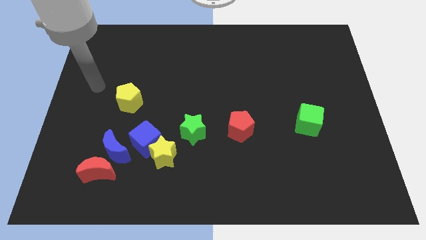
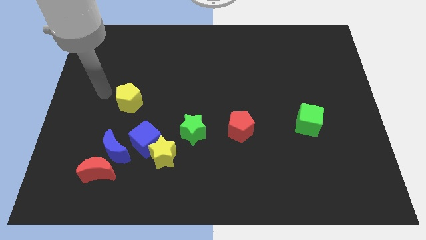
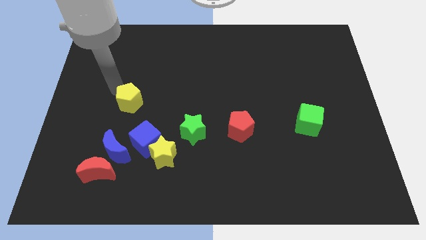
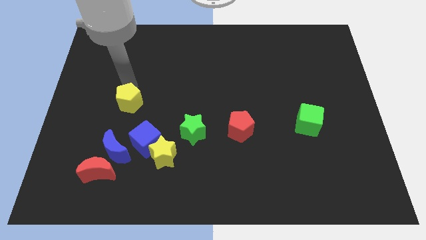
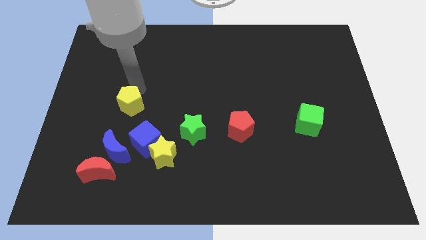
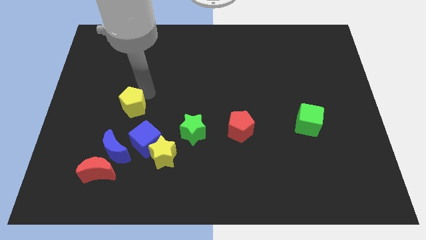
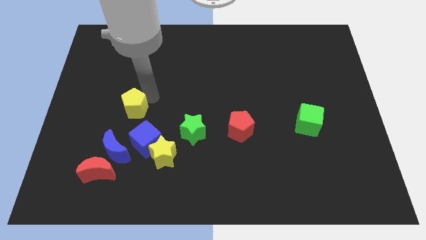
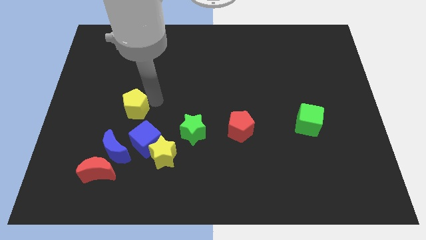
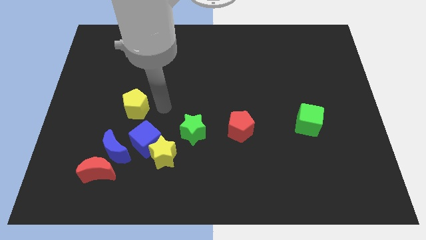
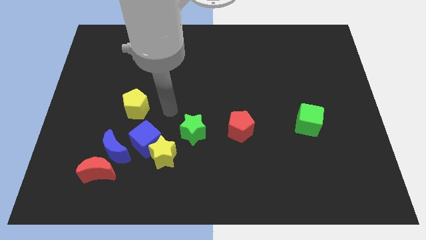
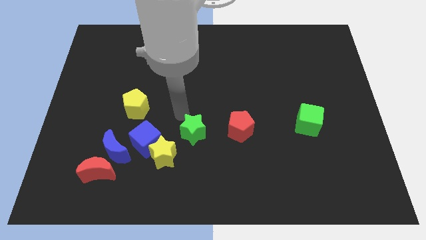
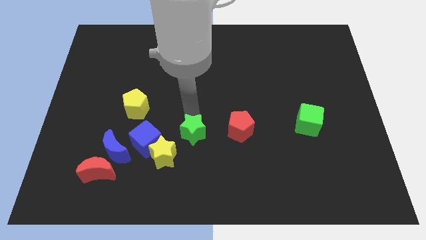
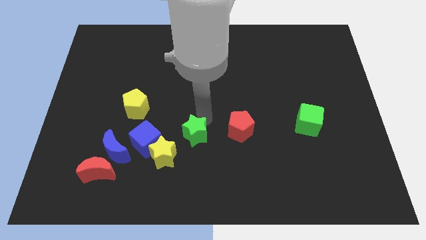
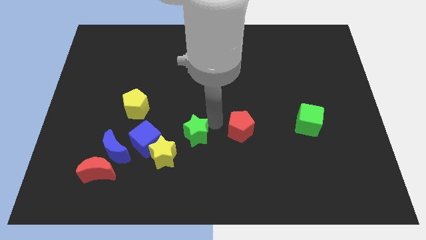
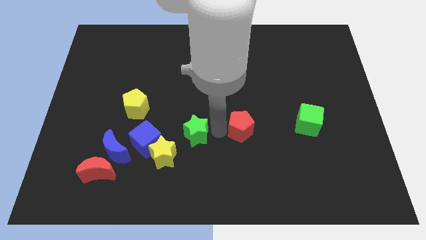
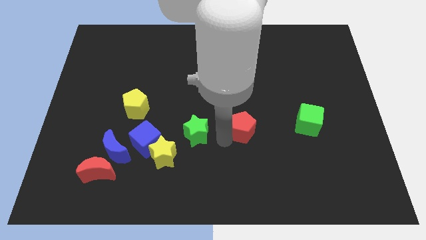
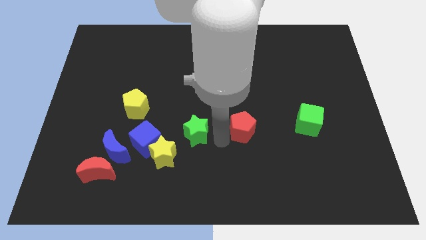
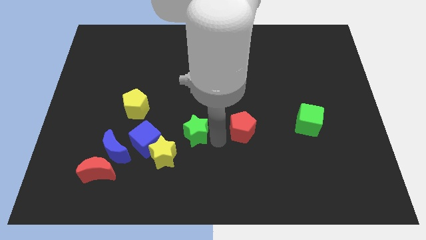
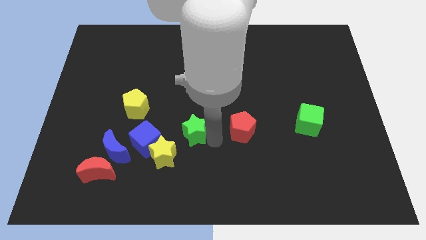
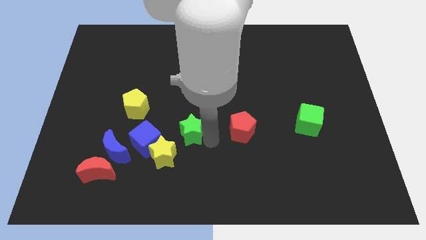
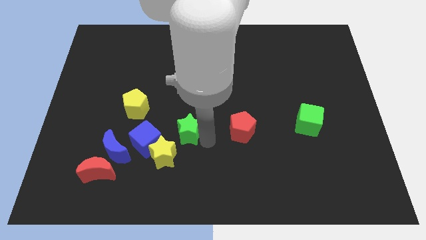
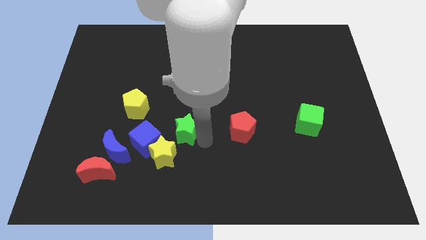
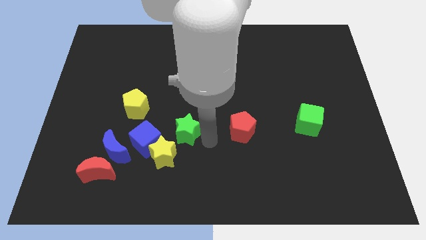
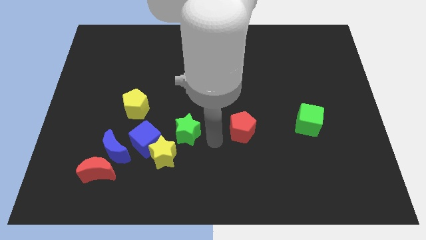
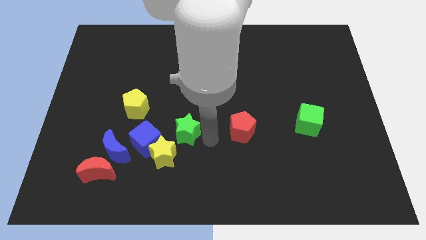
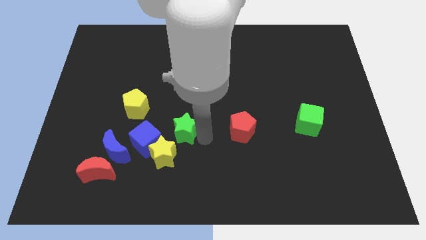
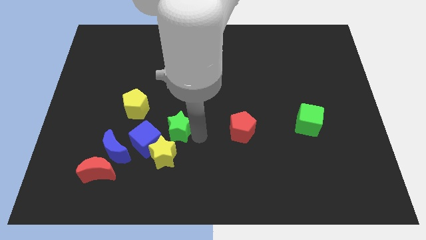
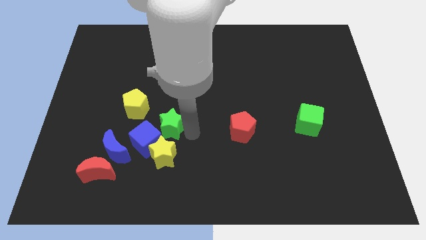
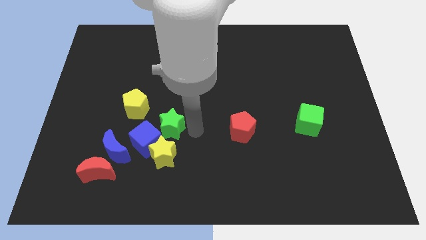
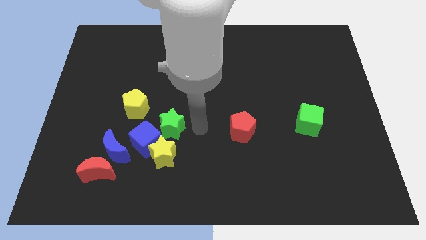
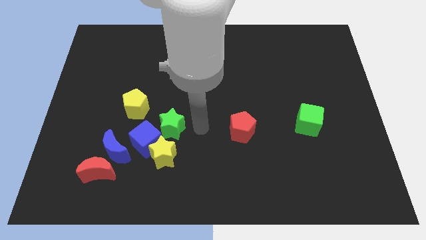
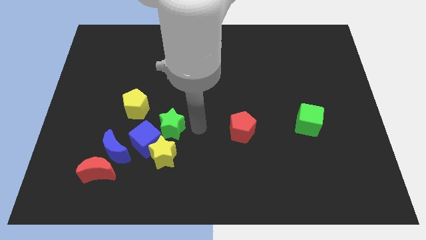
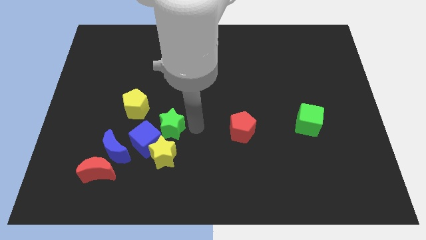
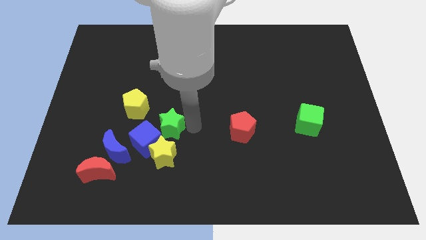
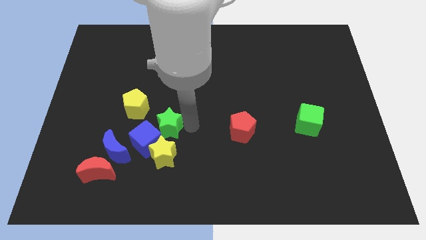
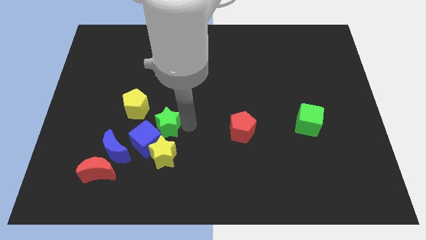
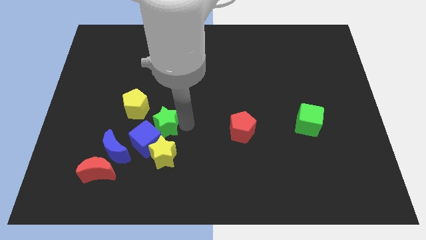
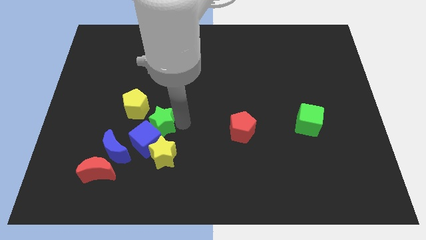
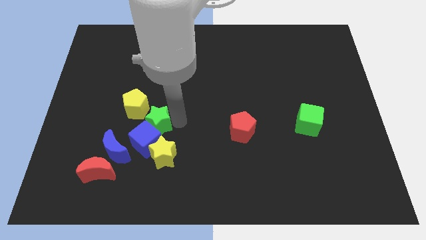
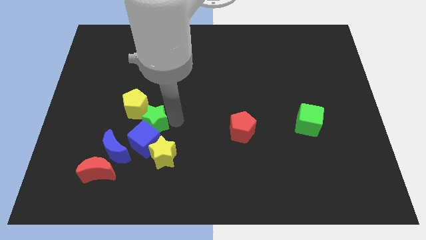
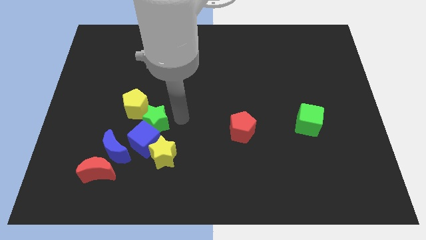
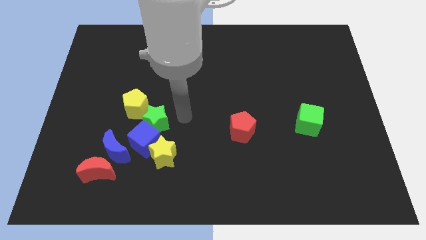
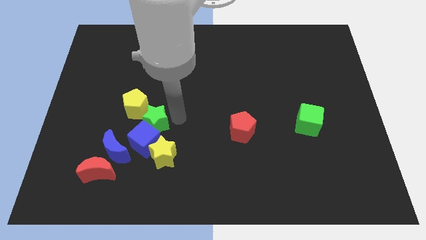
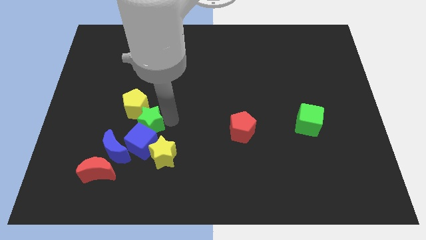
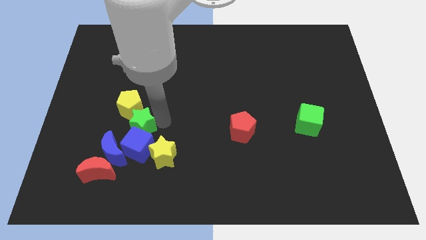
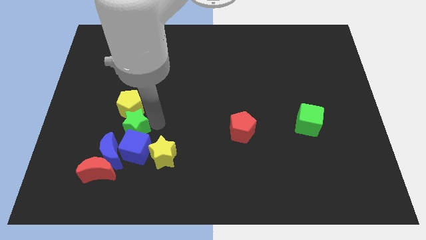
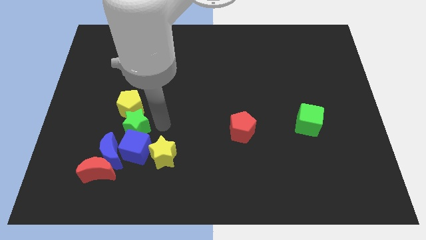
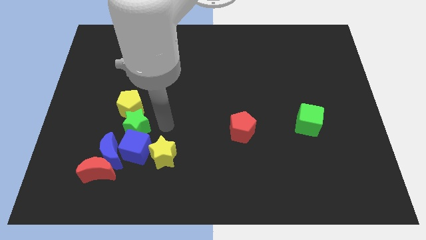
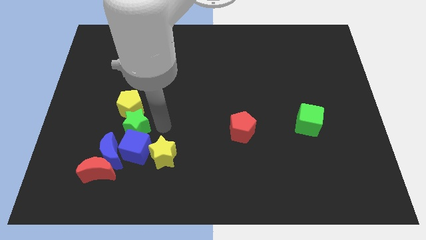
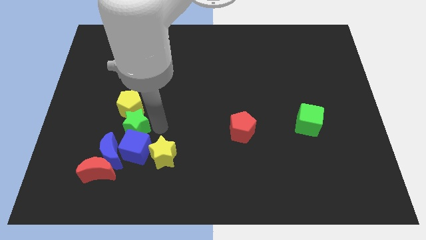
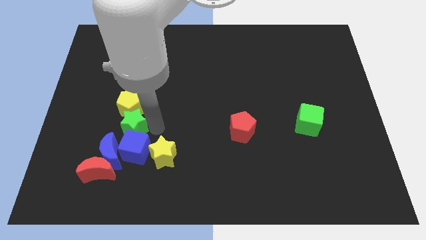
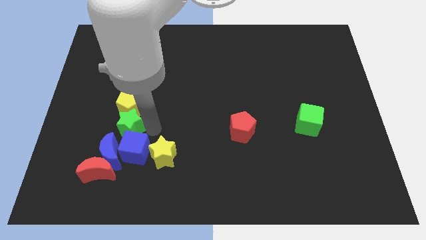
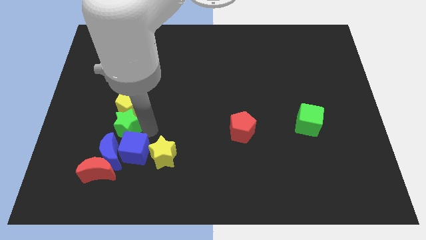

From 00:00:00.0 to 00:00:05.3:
move the green star above the red moon

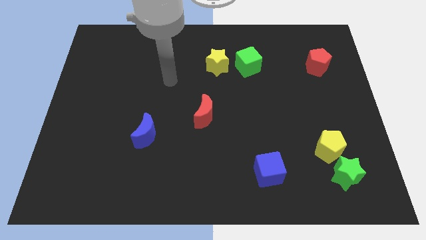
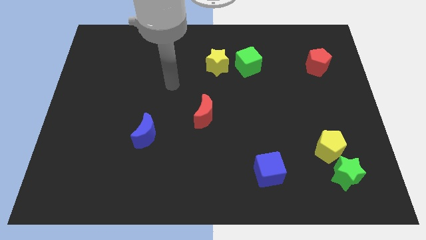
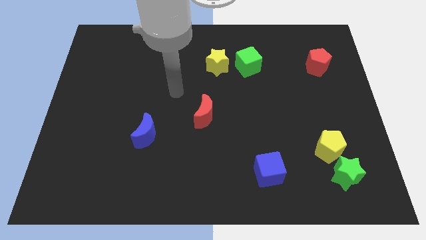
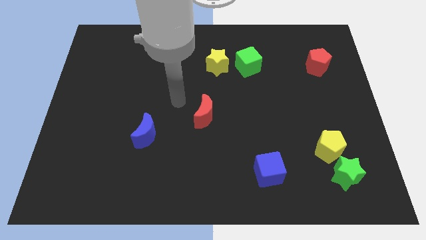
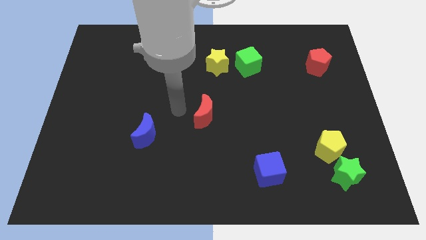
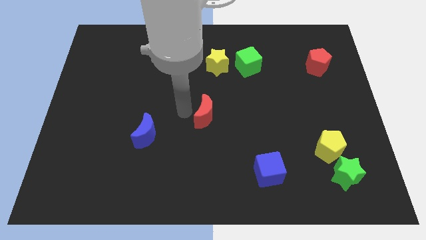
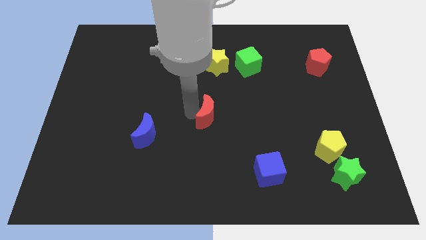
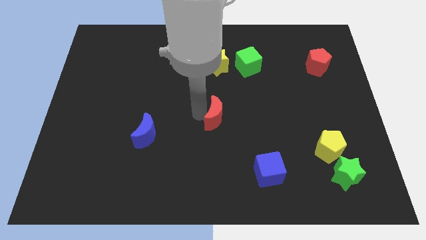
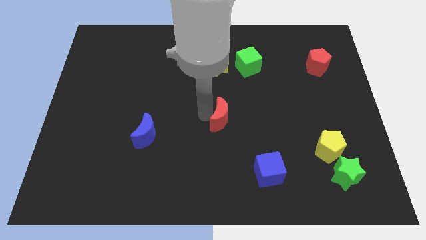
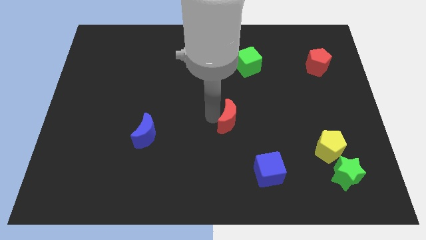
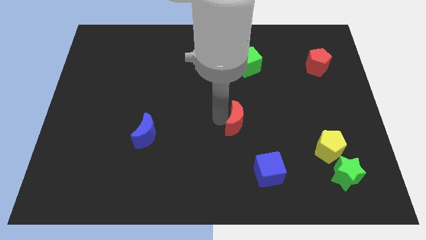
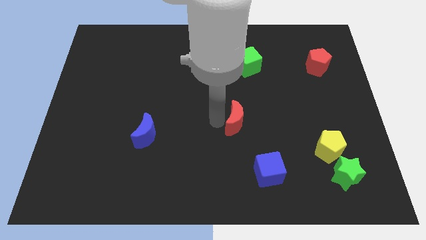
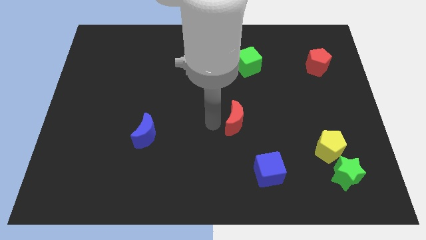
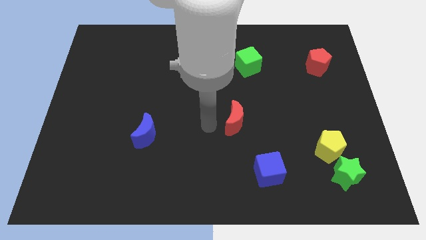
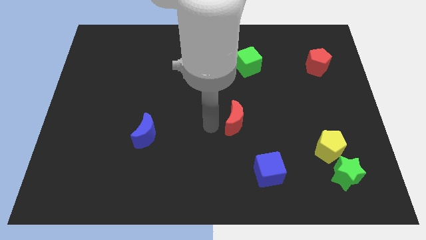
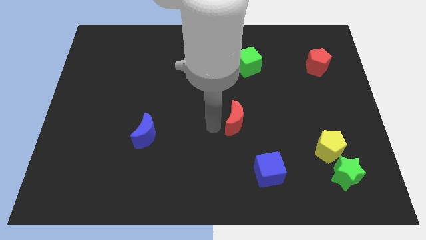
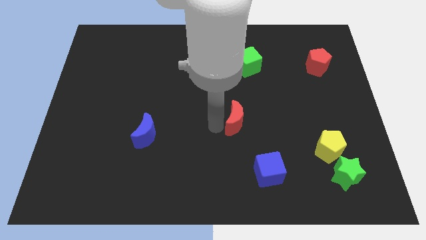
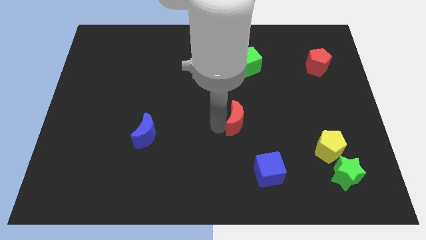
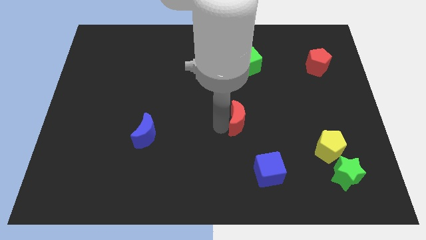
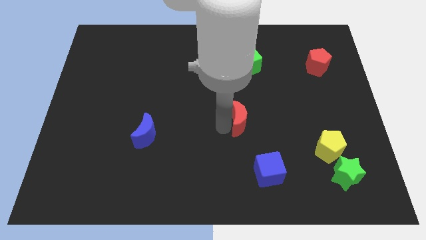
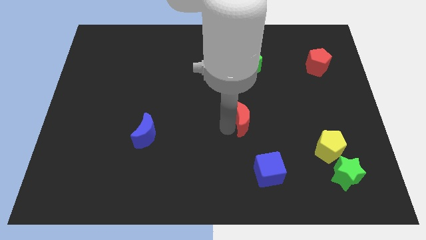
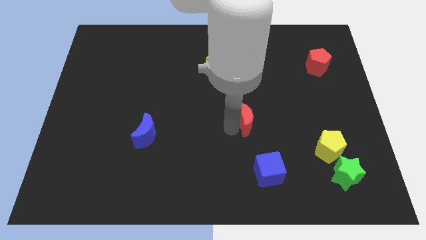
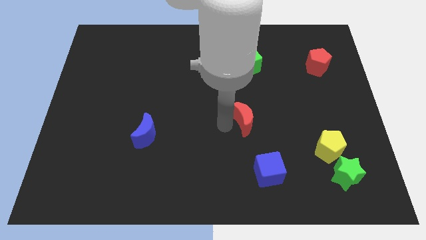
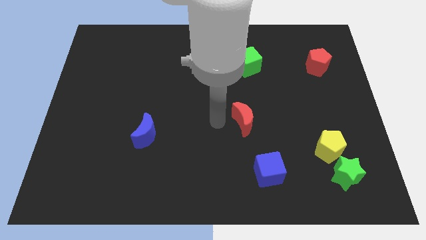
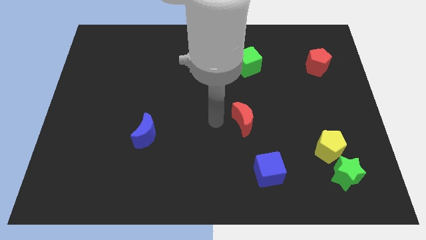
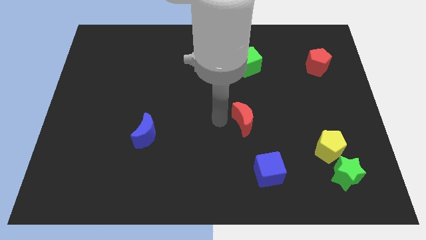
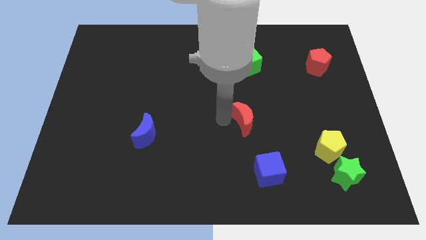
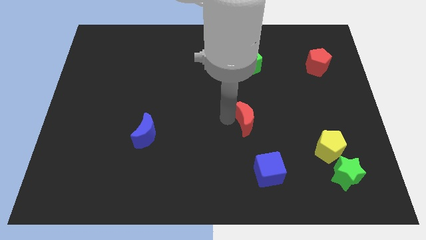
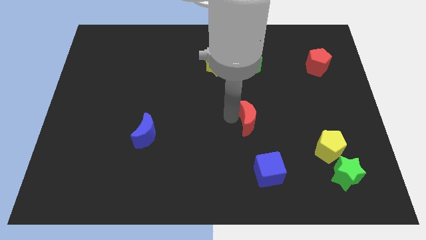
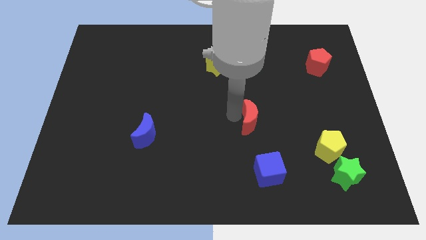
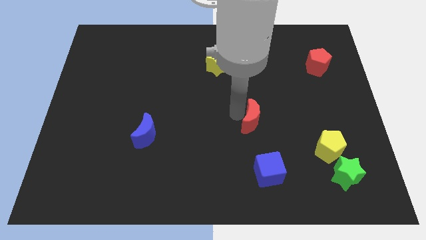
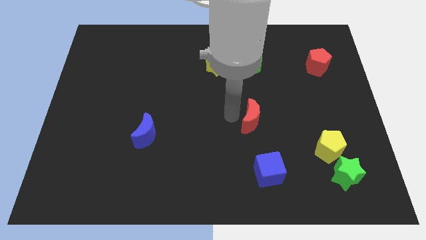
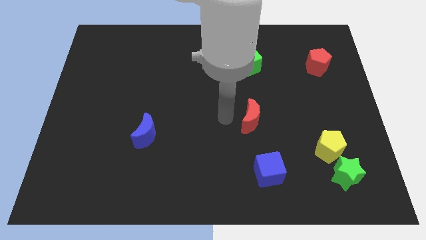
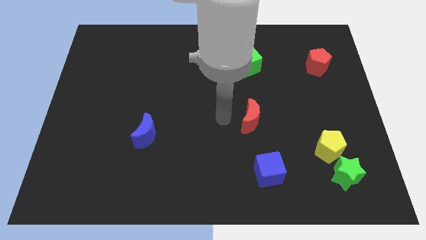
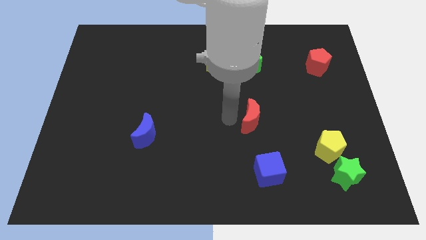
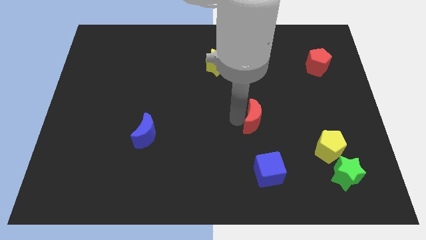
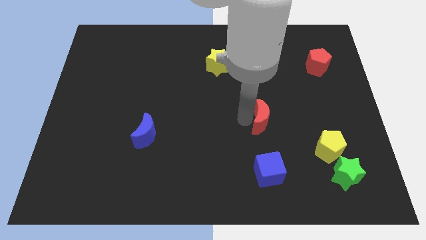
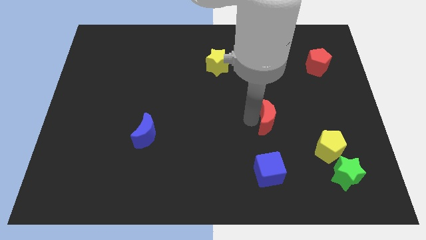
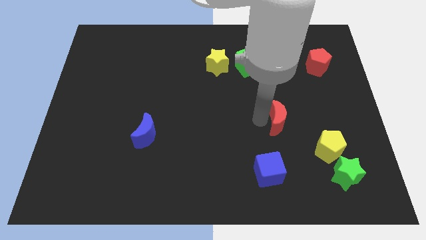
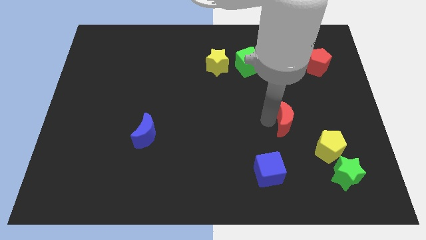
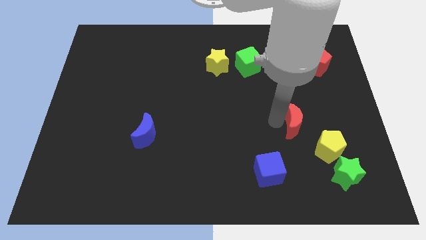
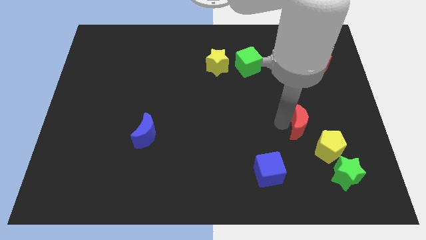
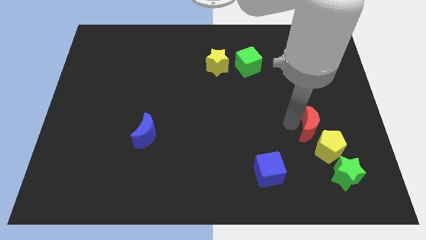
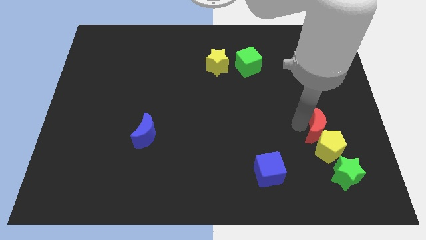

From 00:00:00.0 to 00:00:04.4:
slide the red moon to the top of the green star
